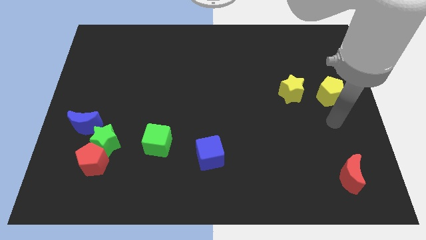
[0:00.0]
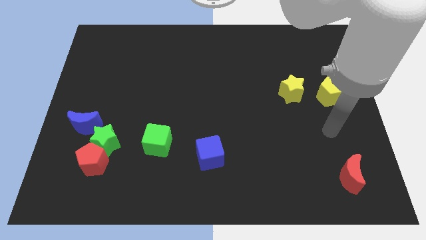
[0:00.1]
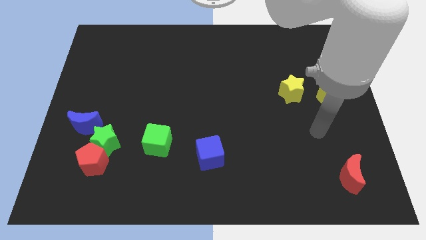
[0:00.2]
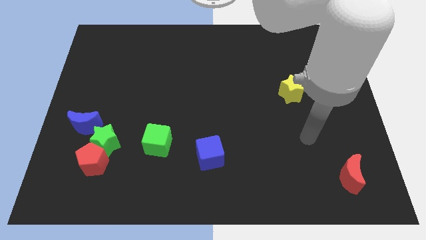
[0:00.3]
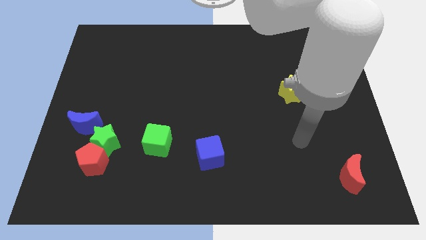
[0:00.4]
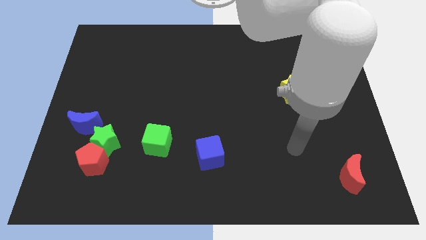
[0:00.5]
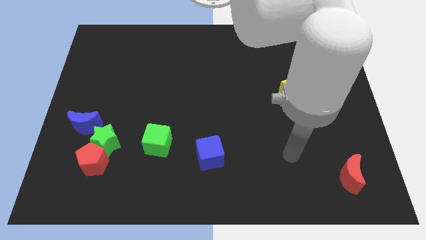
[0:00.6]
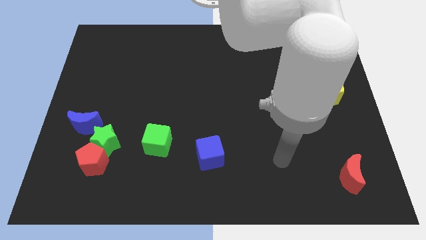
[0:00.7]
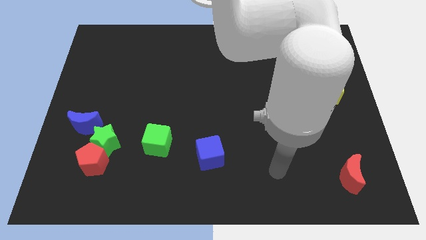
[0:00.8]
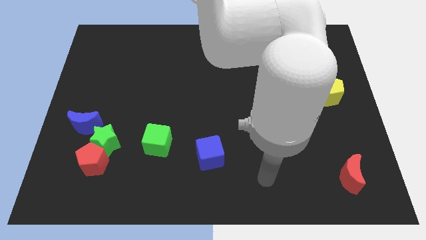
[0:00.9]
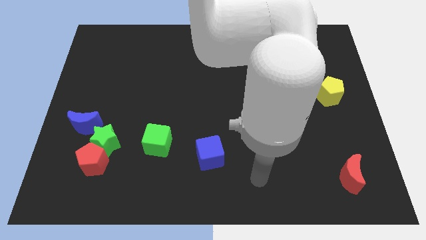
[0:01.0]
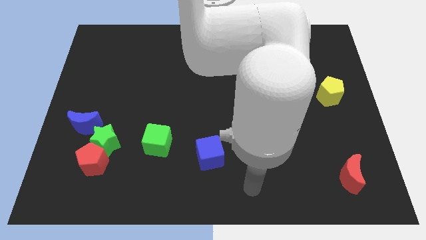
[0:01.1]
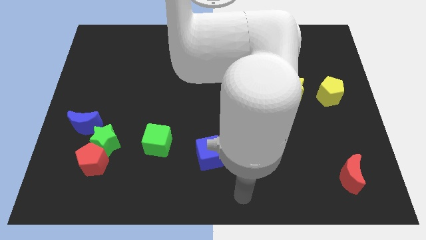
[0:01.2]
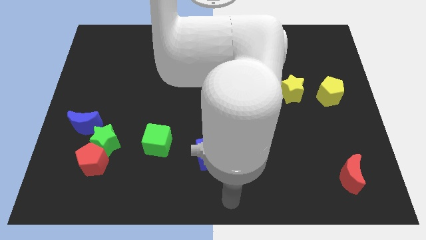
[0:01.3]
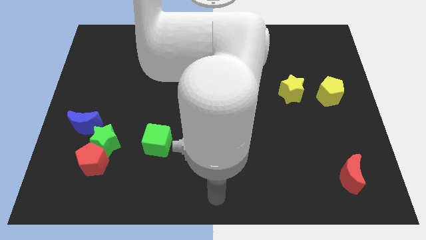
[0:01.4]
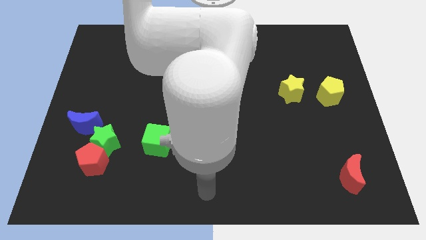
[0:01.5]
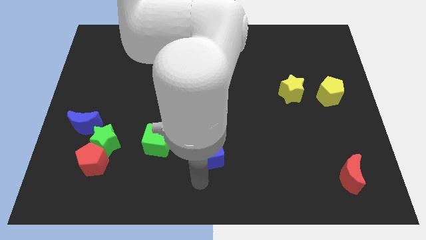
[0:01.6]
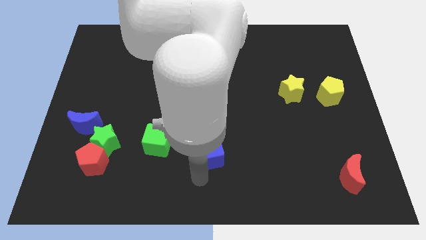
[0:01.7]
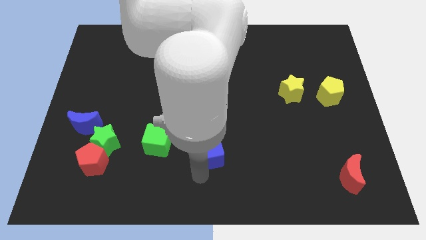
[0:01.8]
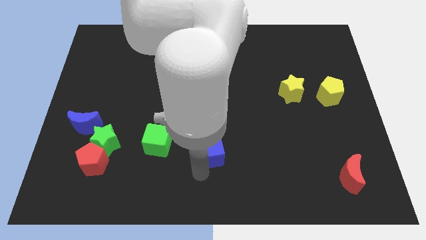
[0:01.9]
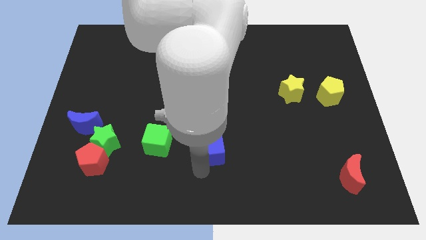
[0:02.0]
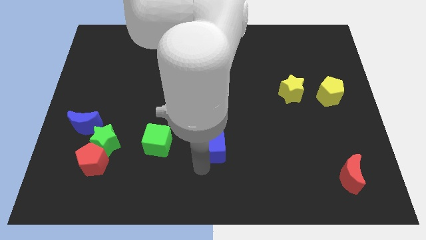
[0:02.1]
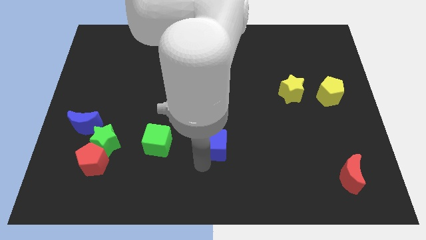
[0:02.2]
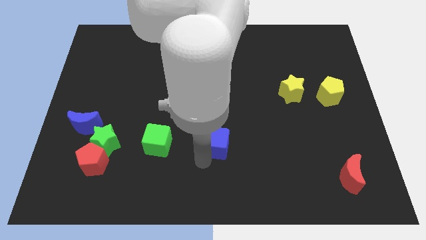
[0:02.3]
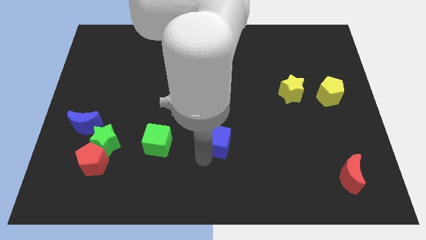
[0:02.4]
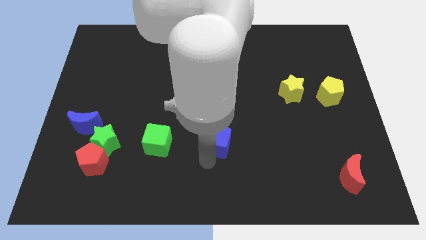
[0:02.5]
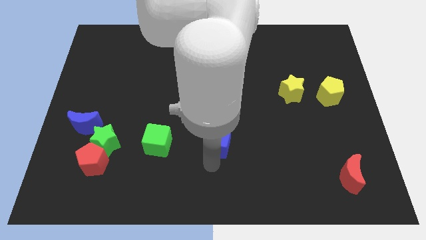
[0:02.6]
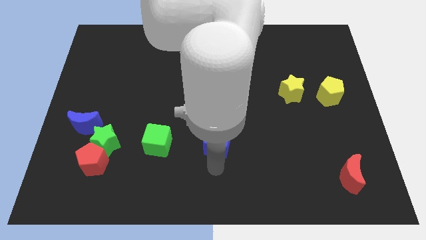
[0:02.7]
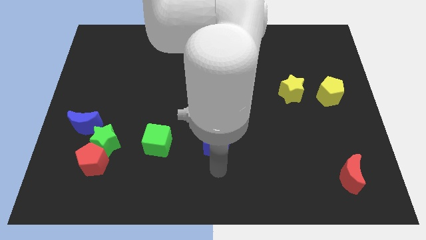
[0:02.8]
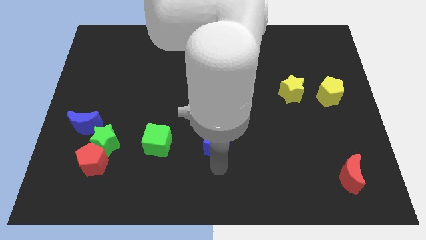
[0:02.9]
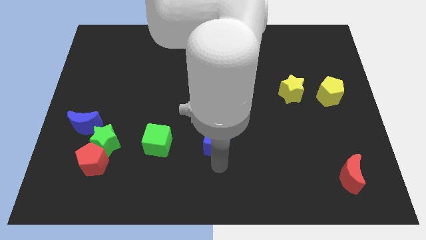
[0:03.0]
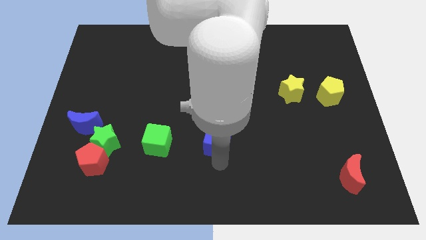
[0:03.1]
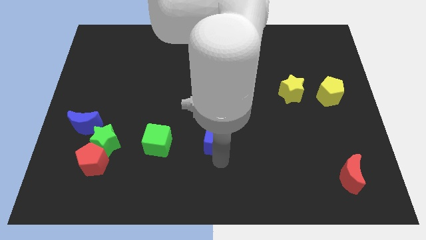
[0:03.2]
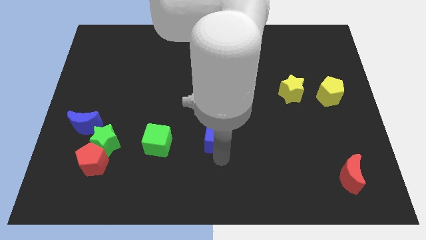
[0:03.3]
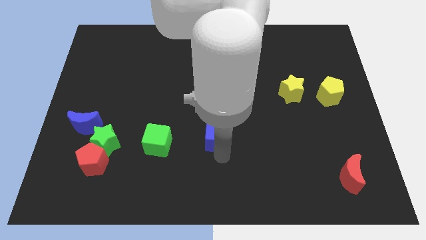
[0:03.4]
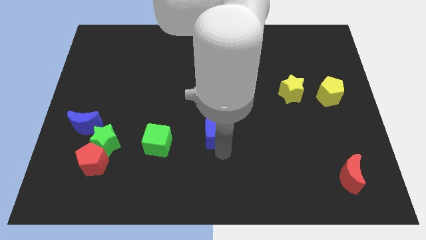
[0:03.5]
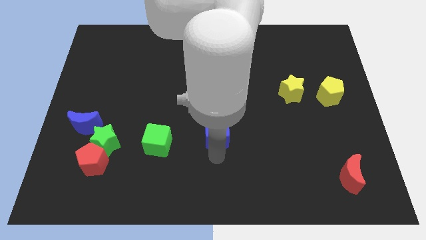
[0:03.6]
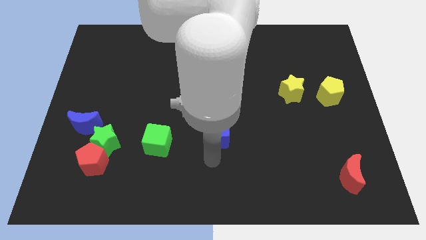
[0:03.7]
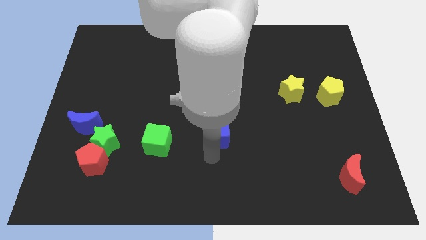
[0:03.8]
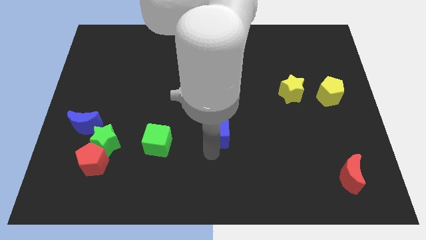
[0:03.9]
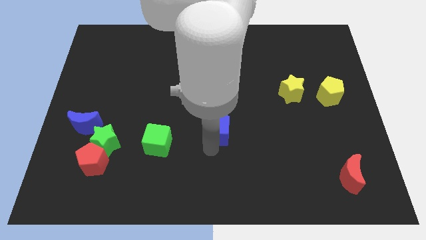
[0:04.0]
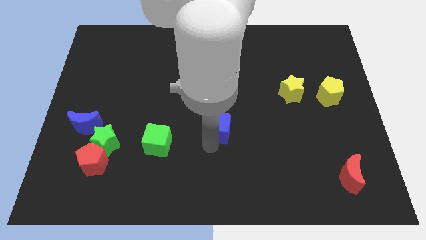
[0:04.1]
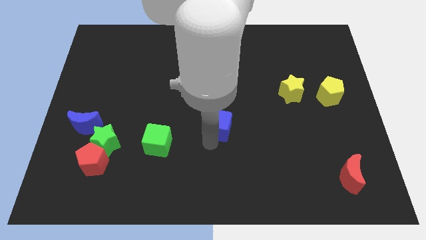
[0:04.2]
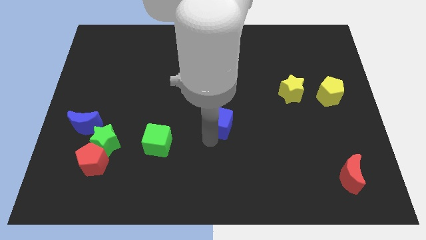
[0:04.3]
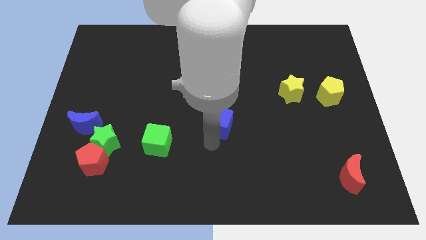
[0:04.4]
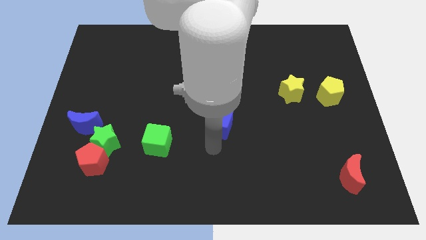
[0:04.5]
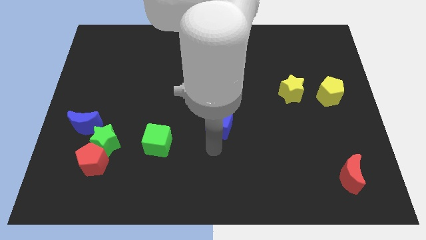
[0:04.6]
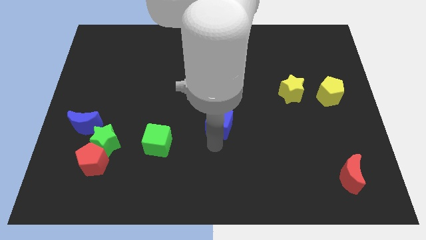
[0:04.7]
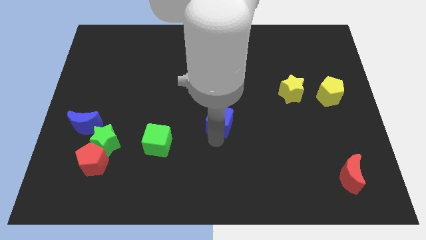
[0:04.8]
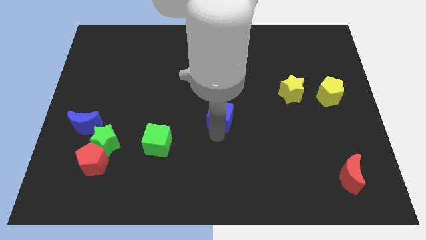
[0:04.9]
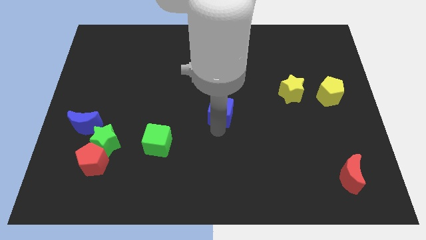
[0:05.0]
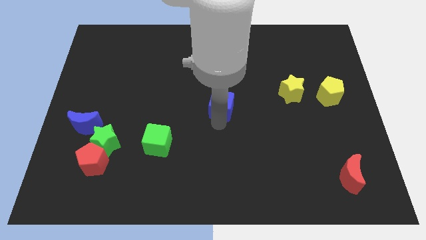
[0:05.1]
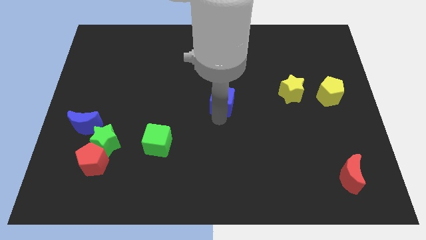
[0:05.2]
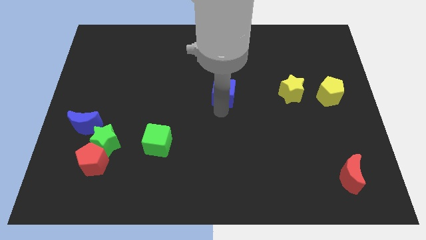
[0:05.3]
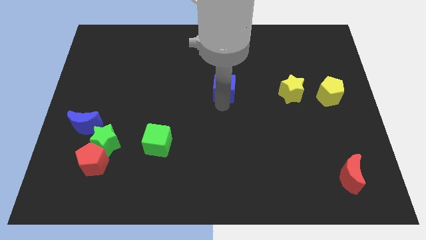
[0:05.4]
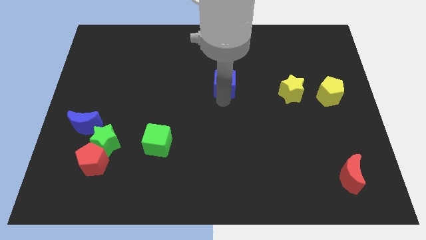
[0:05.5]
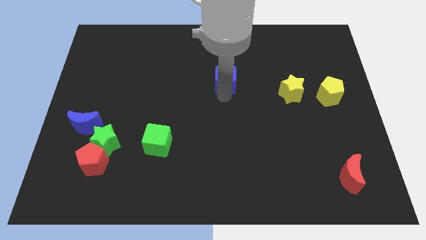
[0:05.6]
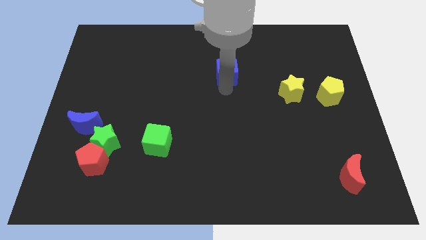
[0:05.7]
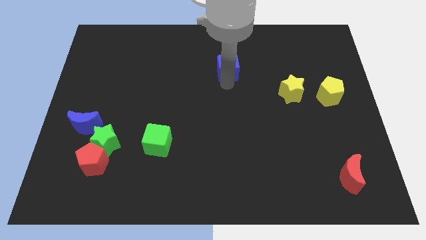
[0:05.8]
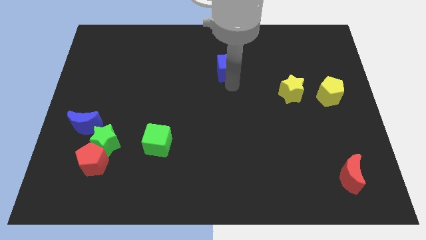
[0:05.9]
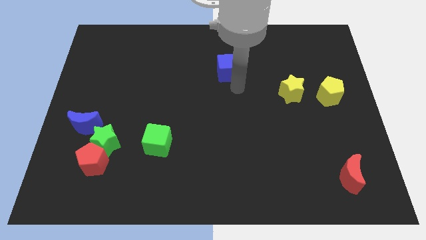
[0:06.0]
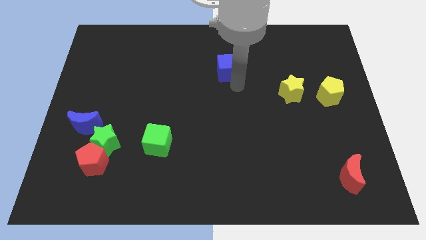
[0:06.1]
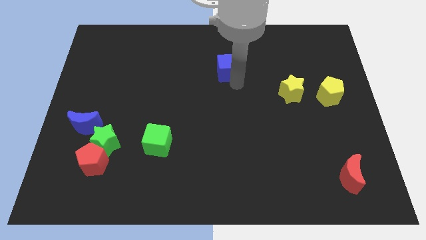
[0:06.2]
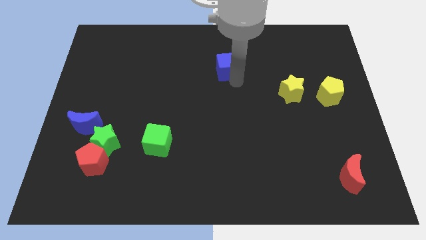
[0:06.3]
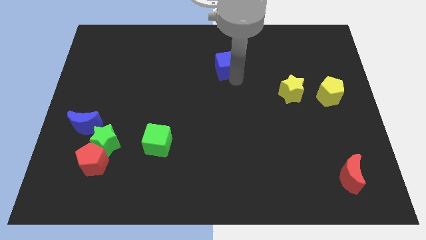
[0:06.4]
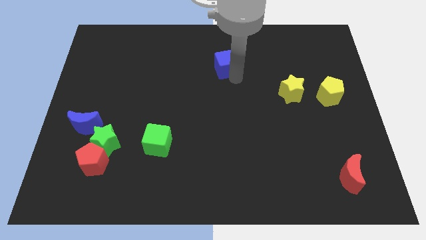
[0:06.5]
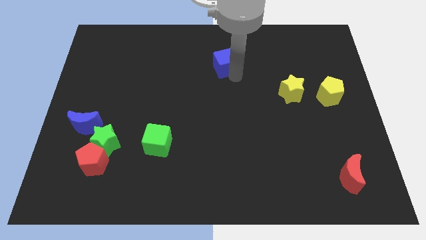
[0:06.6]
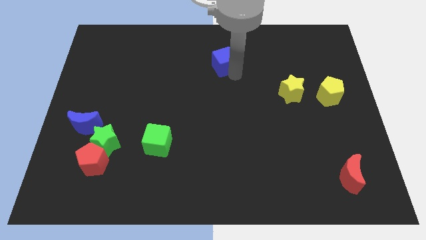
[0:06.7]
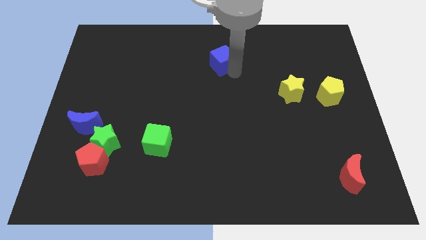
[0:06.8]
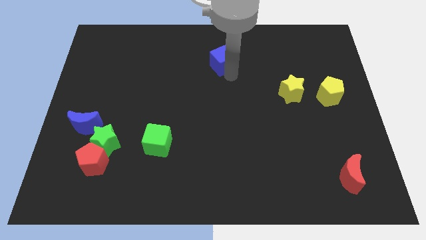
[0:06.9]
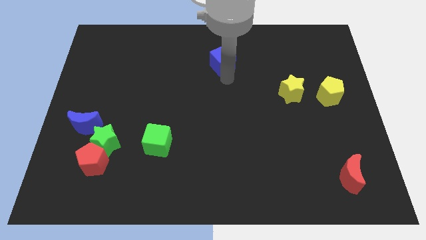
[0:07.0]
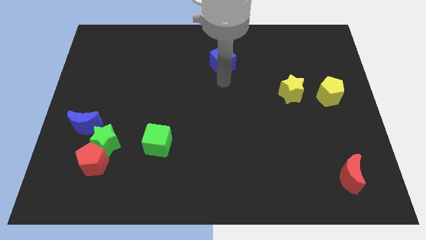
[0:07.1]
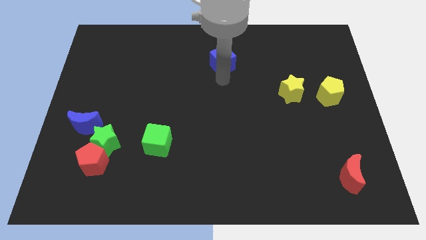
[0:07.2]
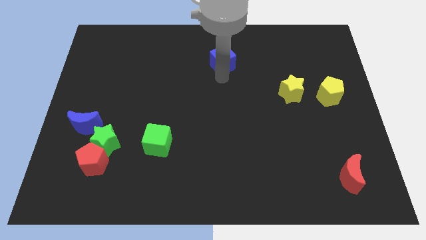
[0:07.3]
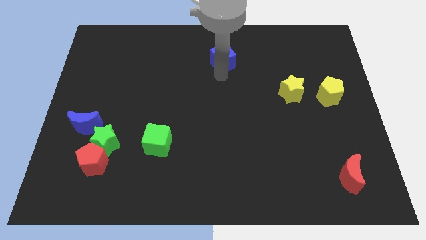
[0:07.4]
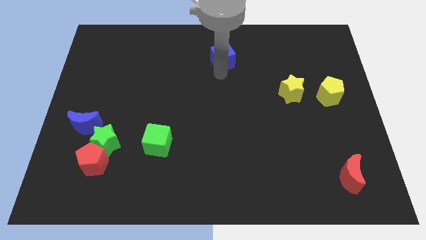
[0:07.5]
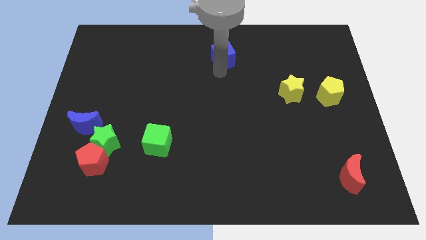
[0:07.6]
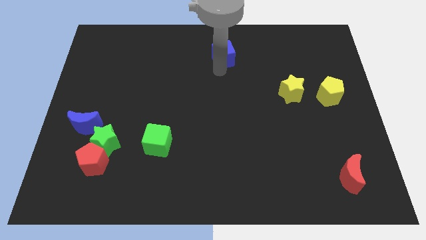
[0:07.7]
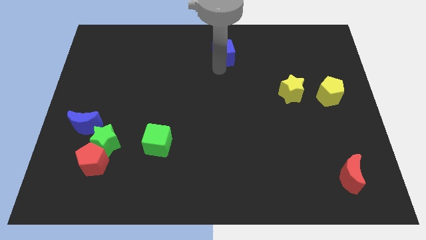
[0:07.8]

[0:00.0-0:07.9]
push the blue cube to the top
